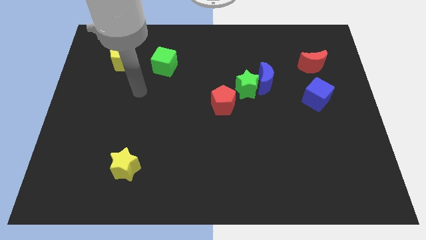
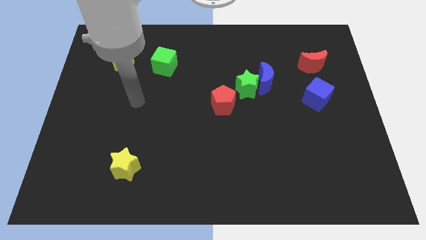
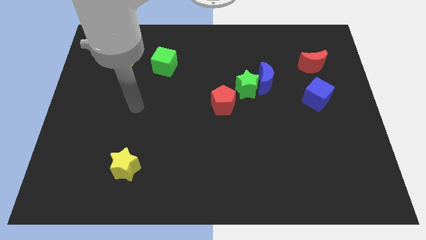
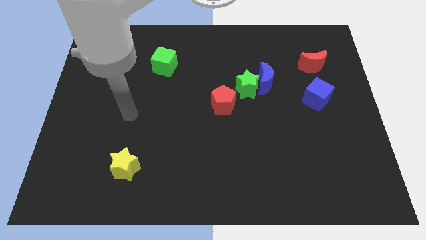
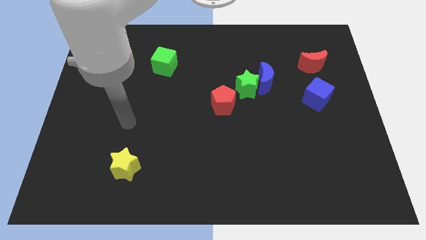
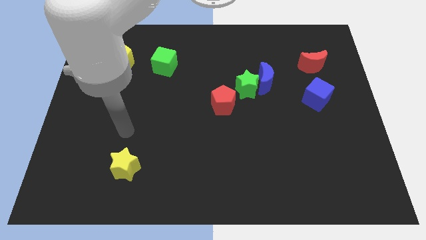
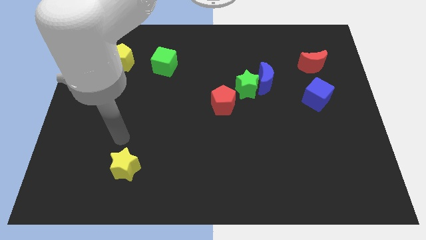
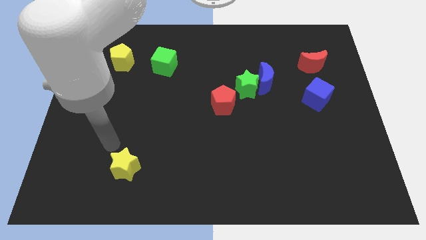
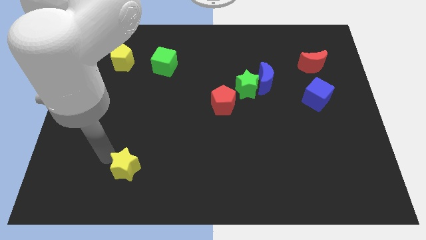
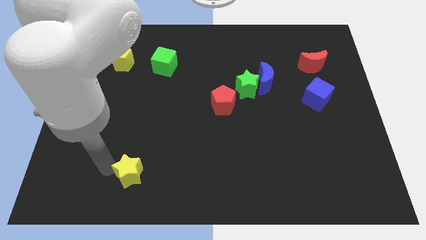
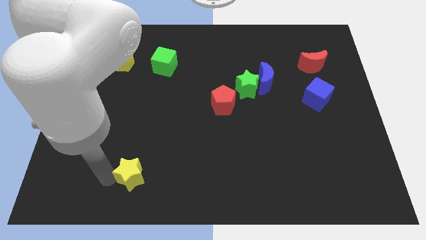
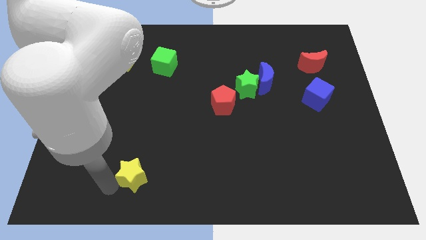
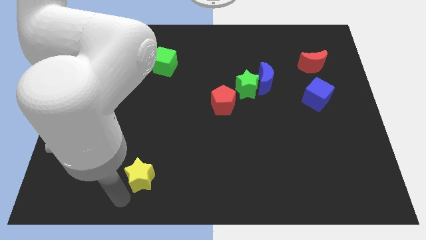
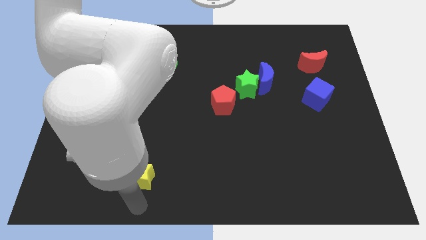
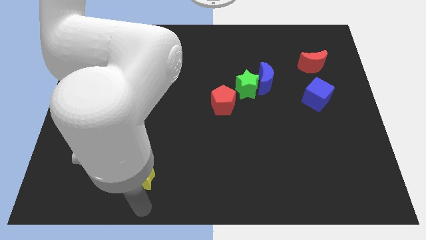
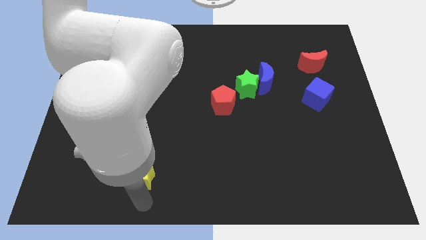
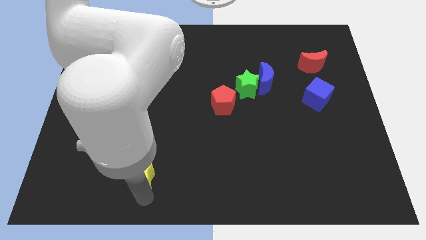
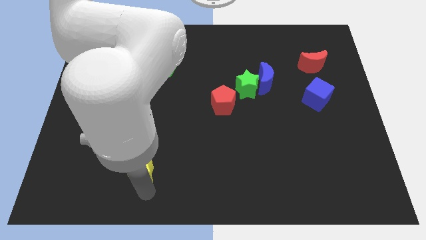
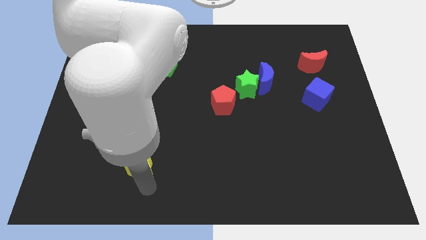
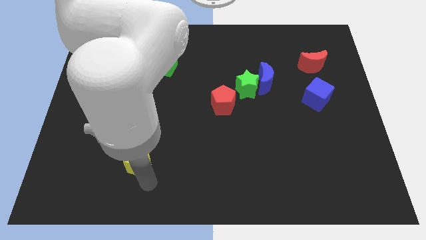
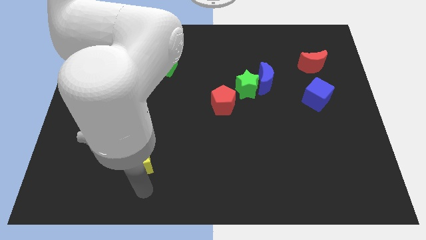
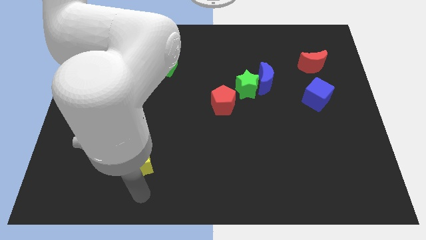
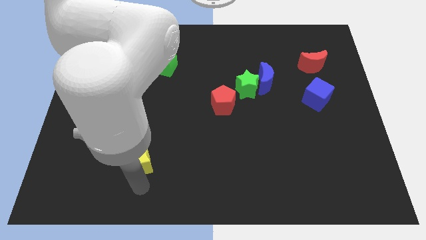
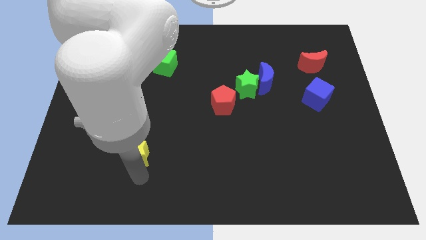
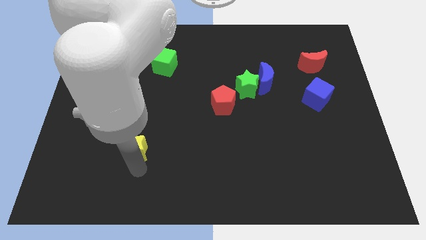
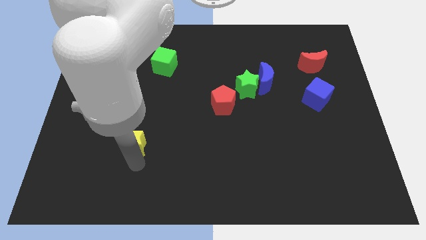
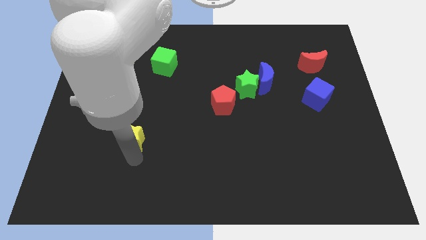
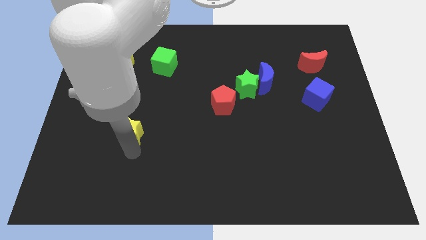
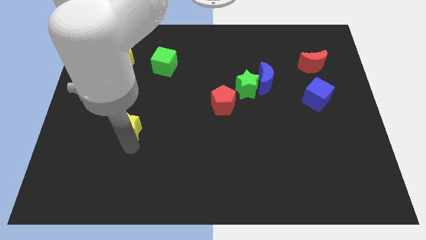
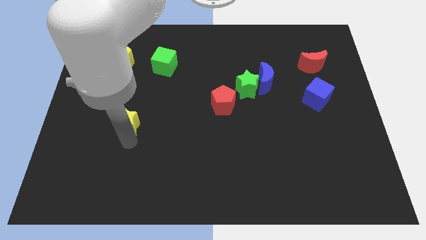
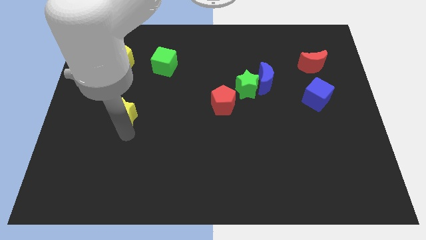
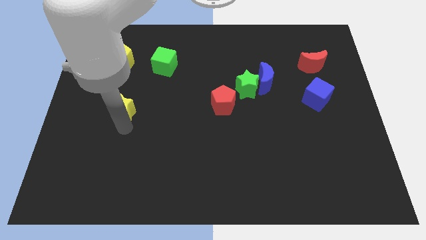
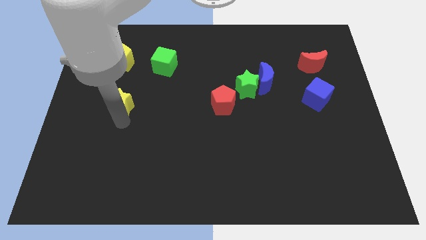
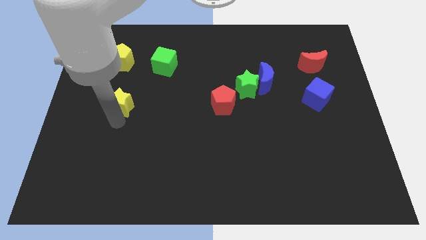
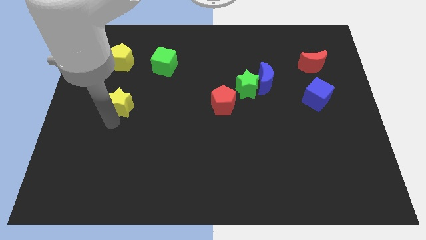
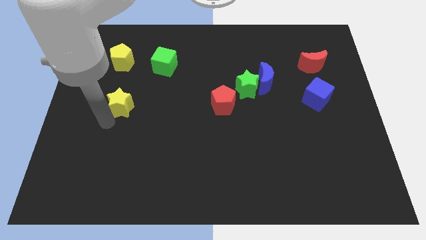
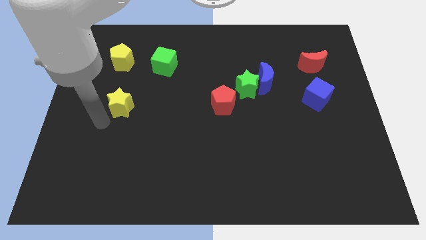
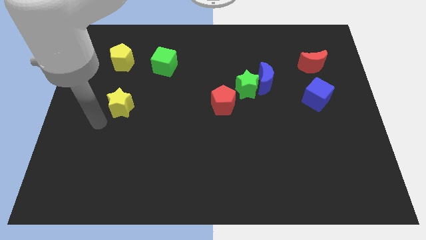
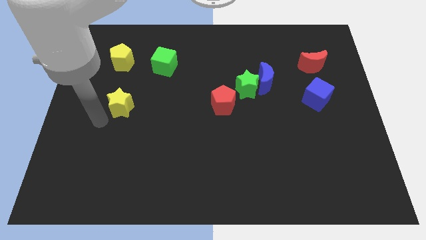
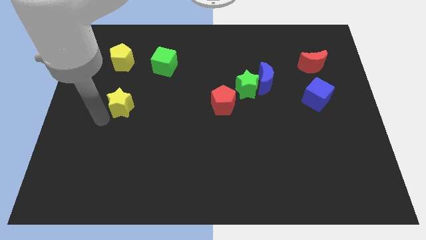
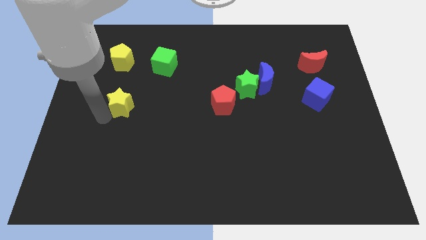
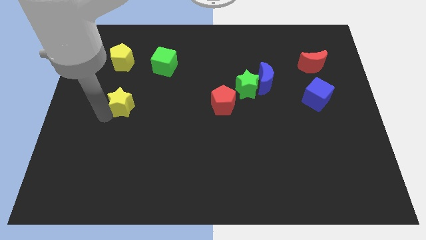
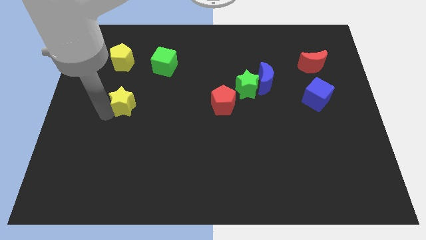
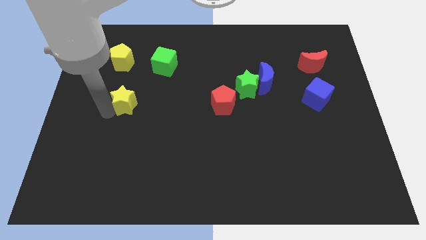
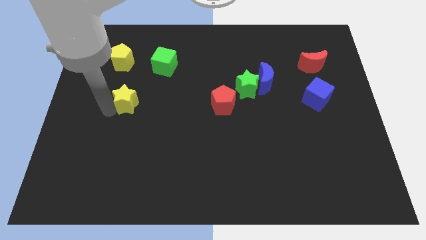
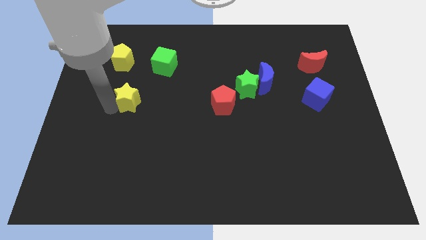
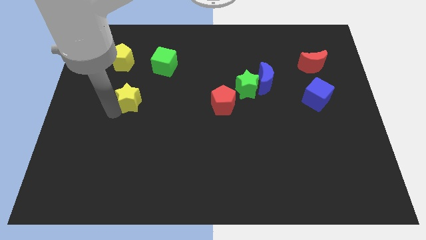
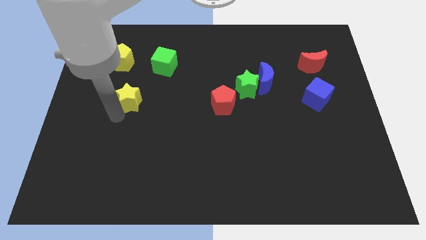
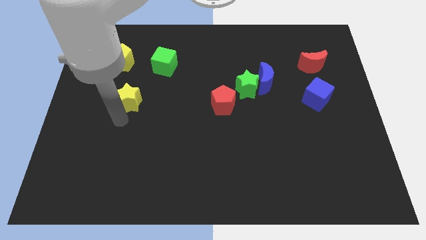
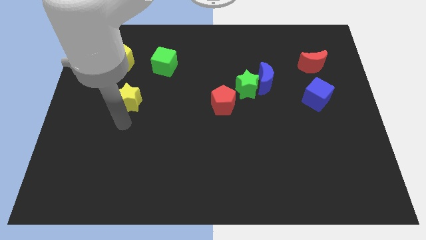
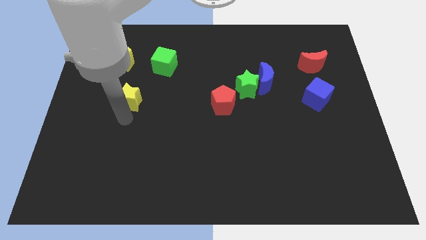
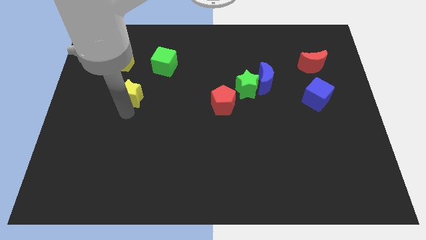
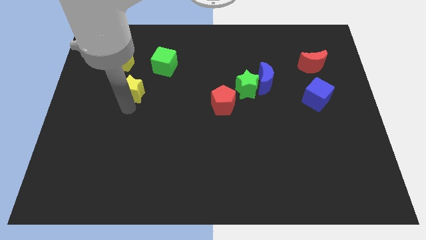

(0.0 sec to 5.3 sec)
slide the yellow star upwards

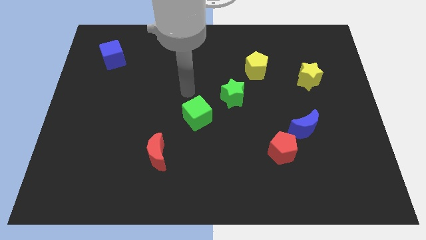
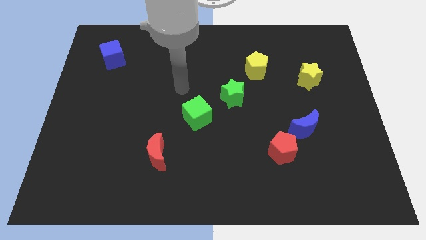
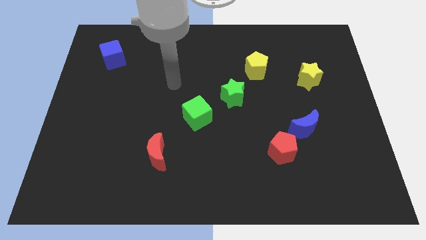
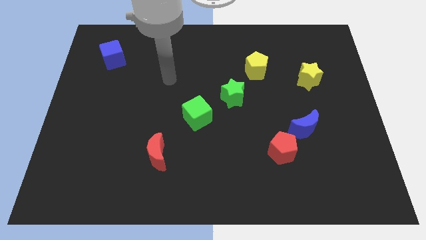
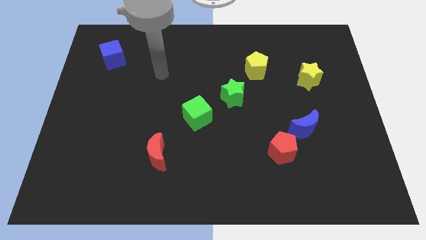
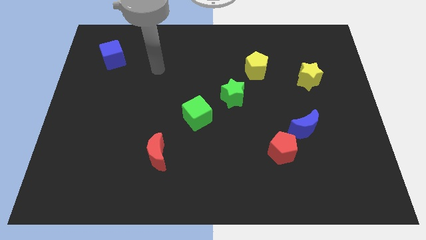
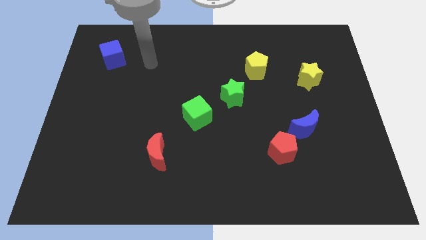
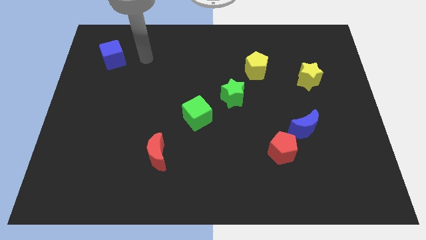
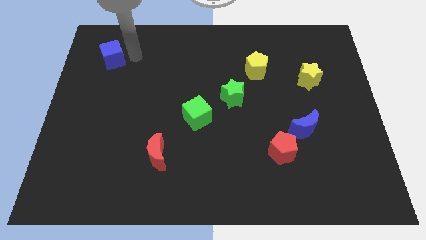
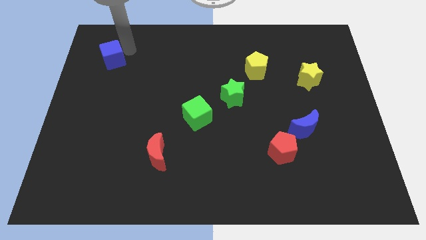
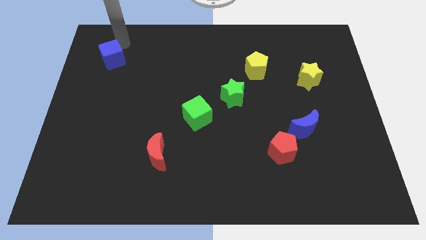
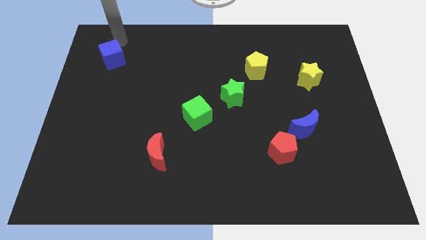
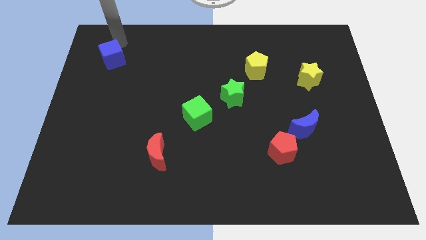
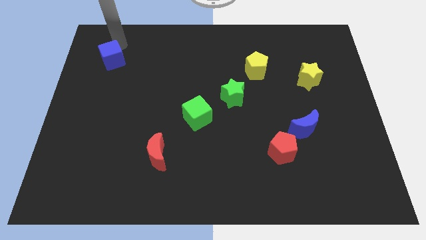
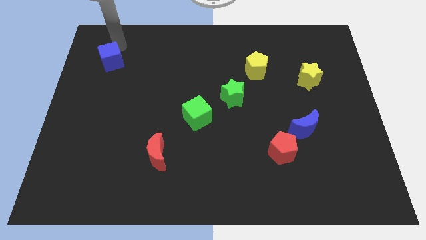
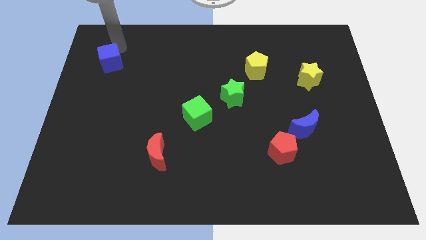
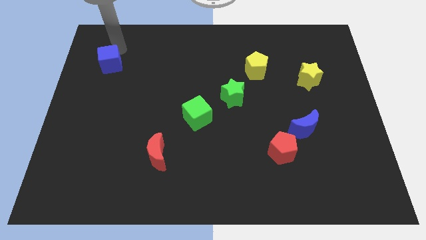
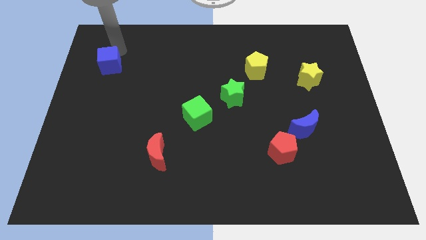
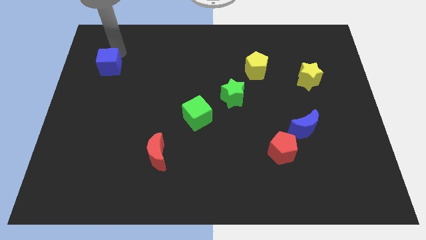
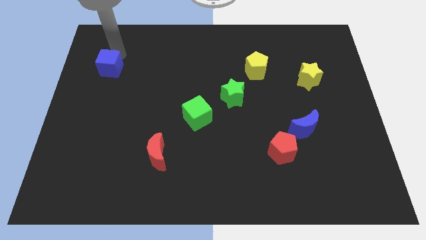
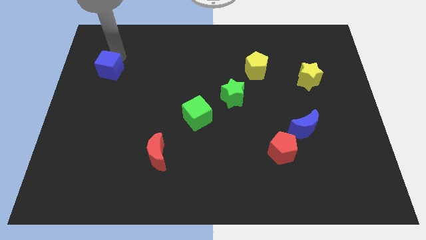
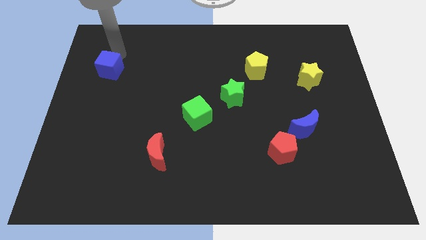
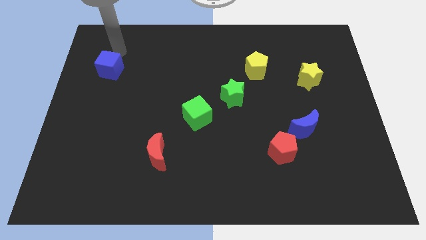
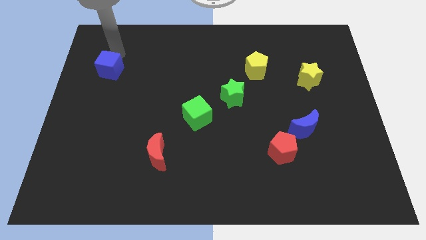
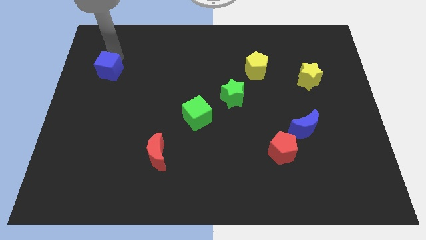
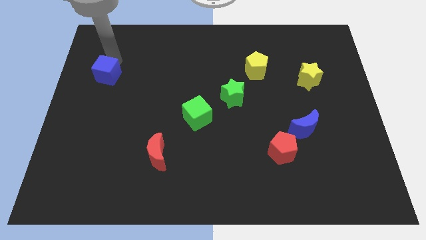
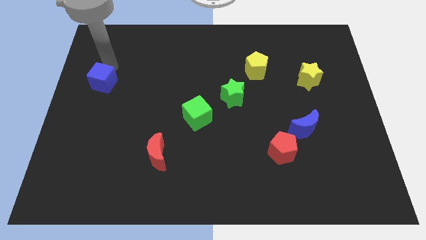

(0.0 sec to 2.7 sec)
slightly slide the blue cube down

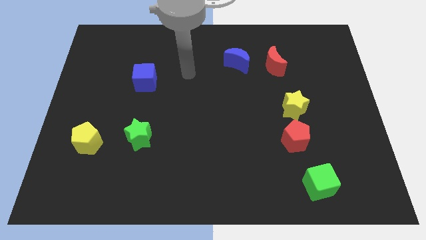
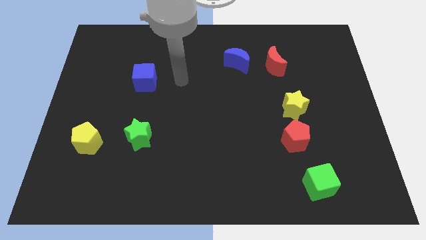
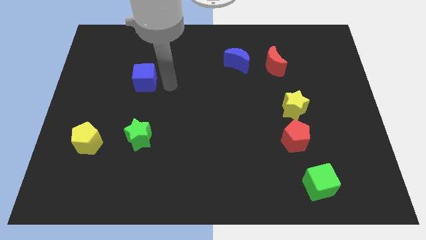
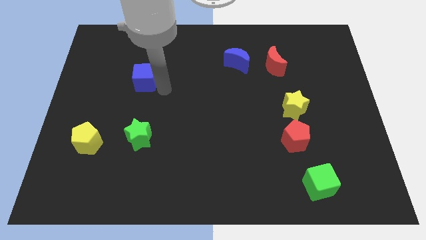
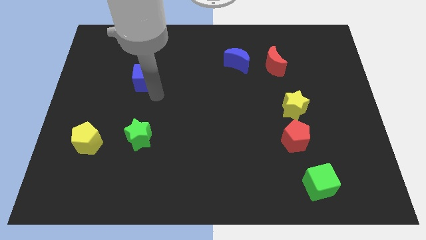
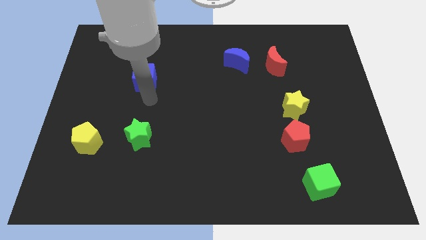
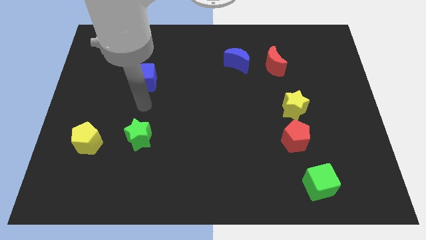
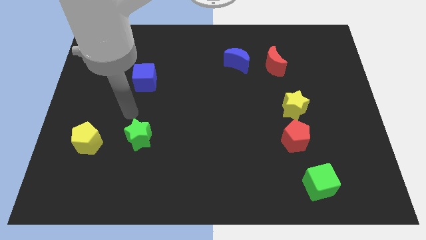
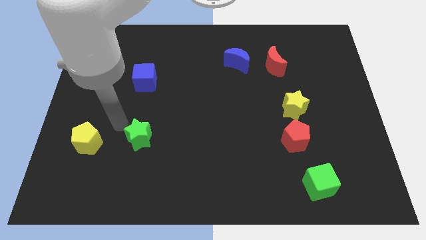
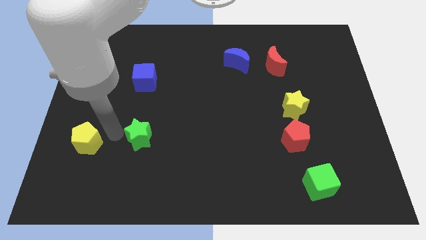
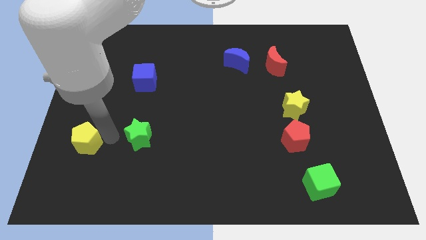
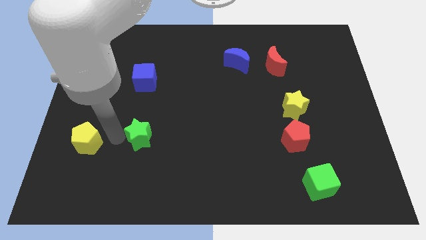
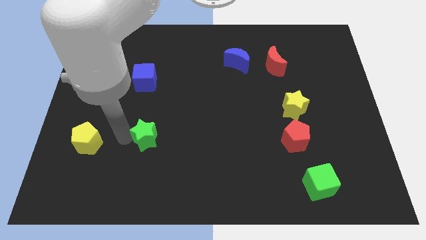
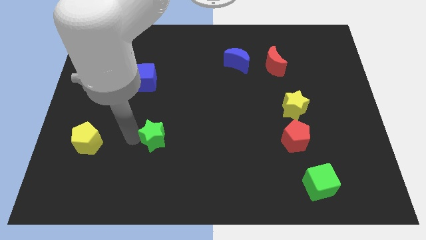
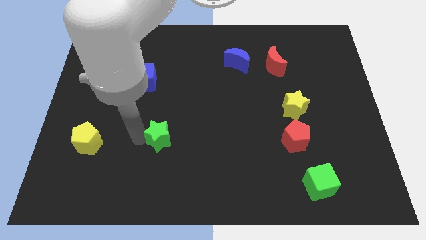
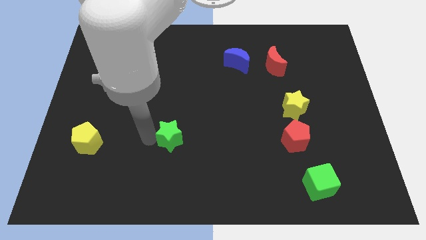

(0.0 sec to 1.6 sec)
slightly slide the green star to the right
